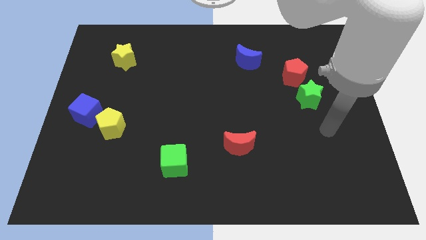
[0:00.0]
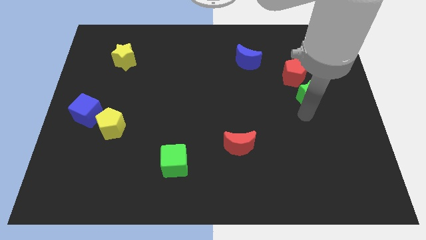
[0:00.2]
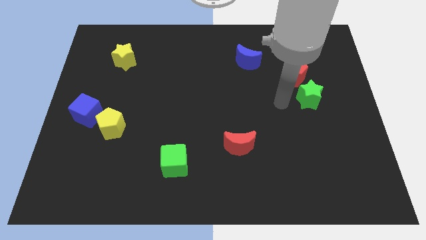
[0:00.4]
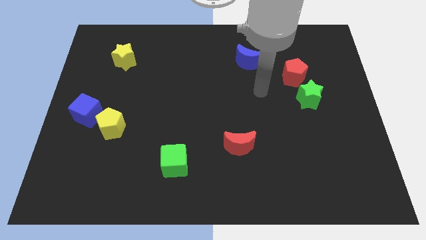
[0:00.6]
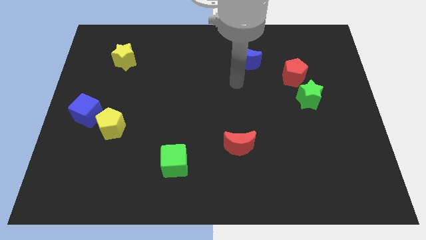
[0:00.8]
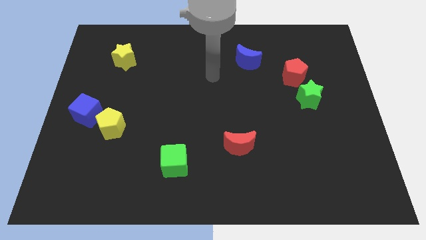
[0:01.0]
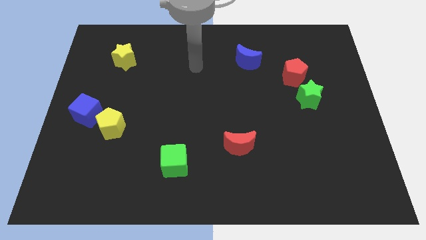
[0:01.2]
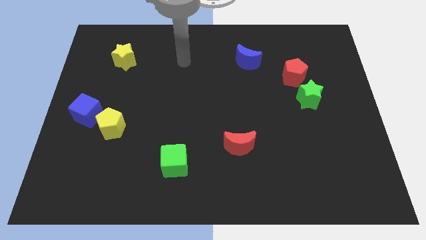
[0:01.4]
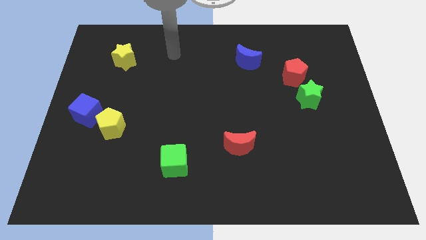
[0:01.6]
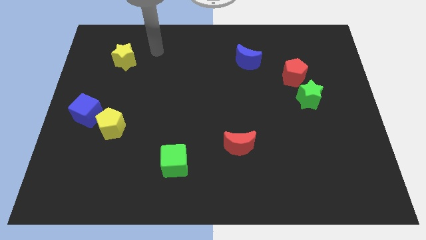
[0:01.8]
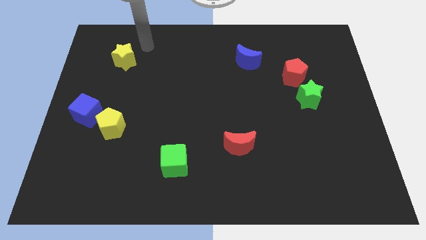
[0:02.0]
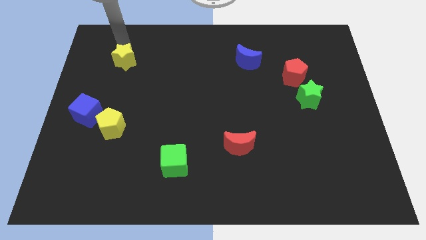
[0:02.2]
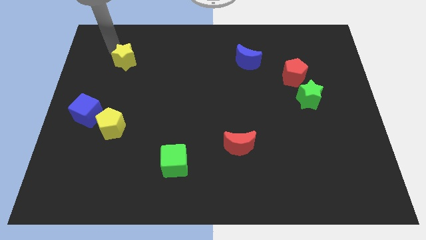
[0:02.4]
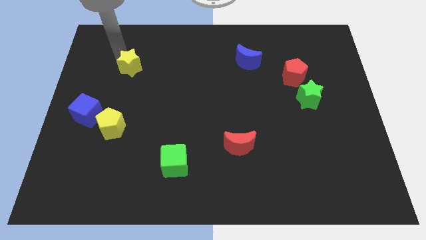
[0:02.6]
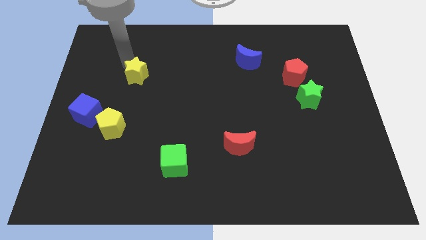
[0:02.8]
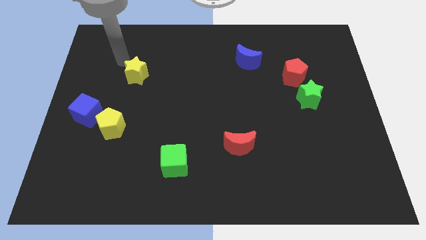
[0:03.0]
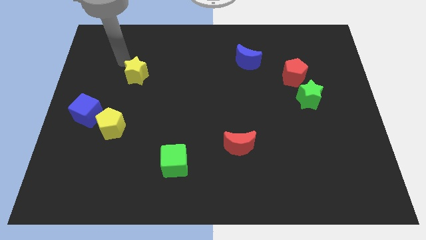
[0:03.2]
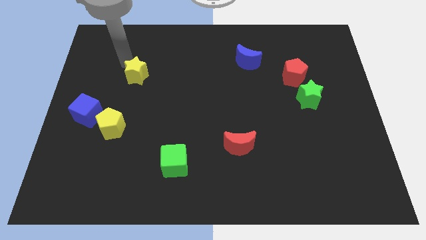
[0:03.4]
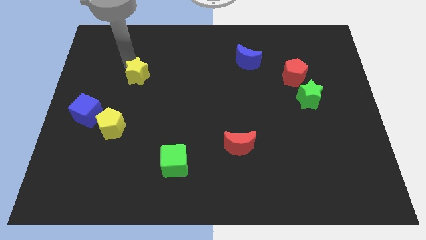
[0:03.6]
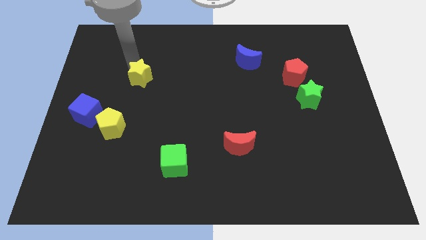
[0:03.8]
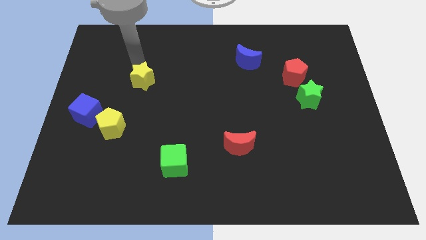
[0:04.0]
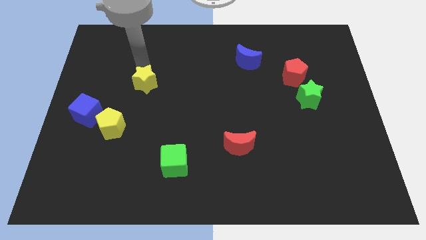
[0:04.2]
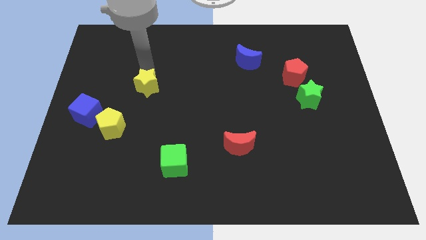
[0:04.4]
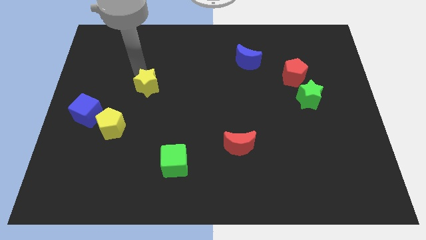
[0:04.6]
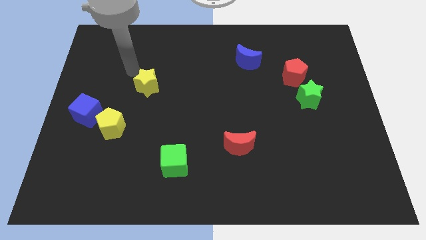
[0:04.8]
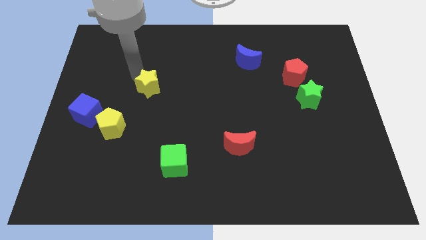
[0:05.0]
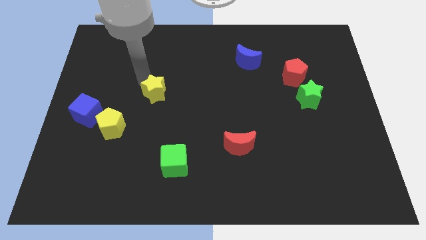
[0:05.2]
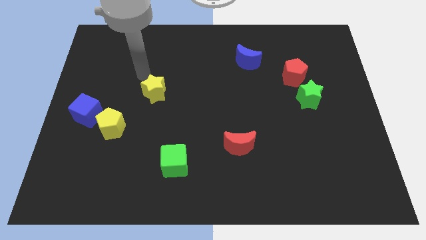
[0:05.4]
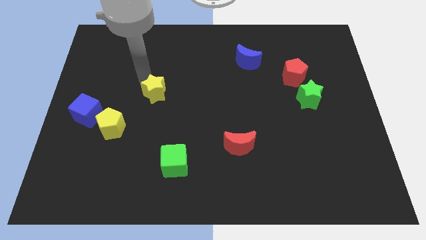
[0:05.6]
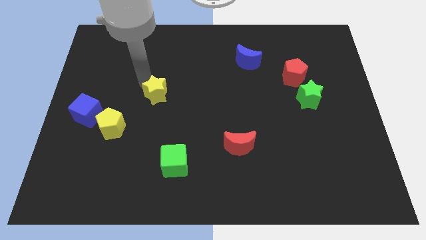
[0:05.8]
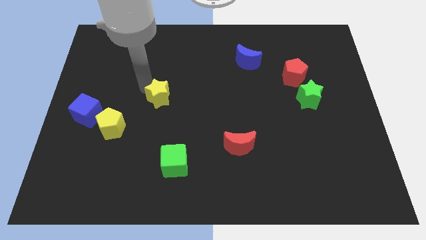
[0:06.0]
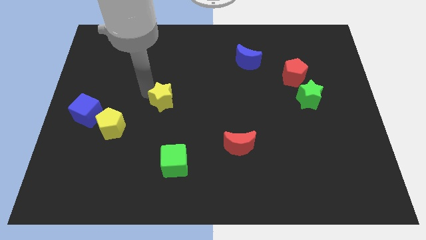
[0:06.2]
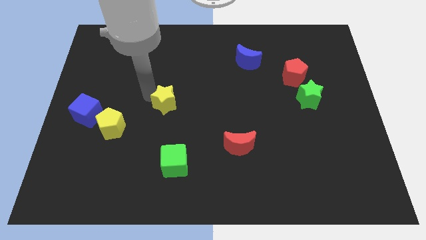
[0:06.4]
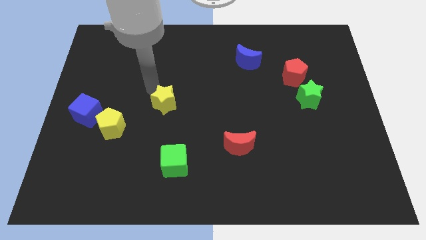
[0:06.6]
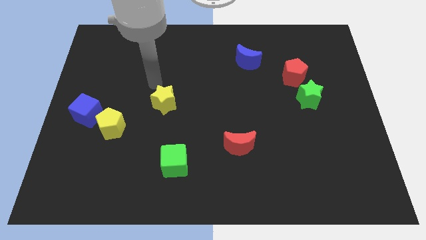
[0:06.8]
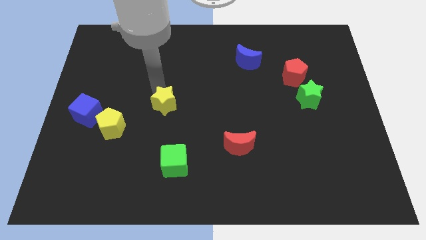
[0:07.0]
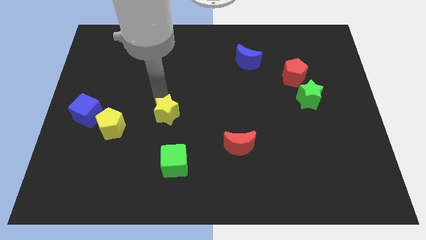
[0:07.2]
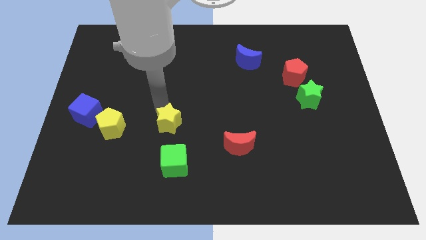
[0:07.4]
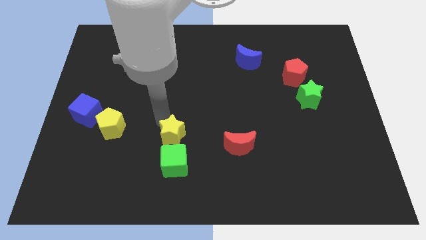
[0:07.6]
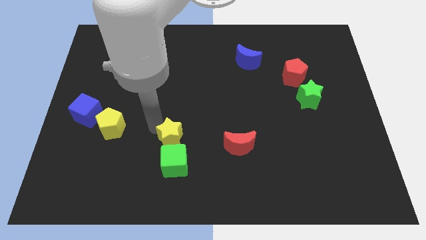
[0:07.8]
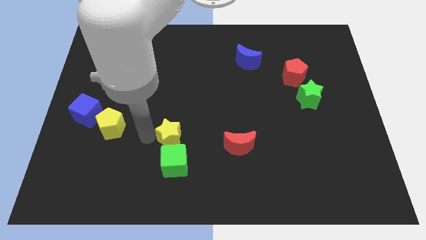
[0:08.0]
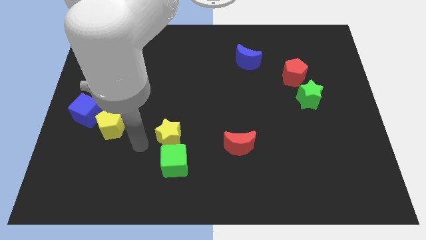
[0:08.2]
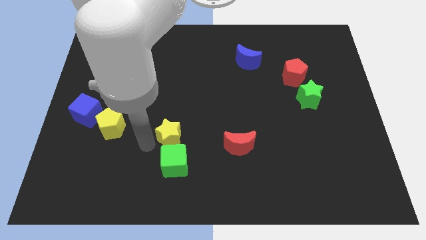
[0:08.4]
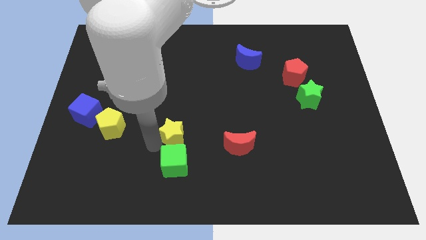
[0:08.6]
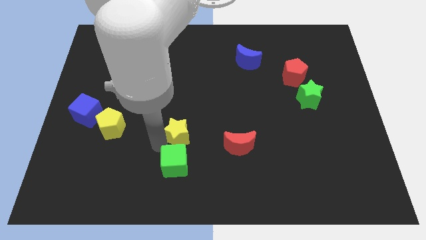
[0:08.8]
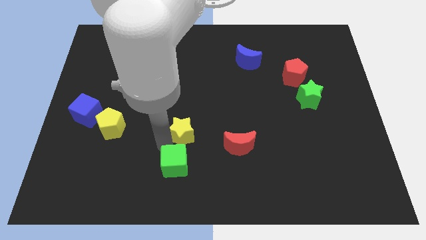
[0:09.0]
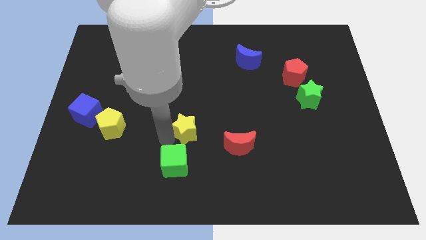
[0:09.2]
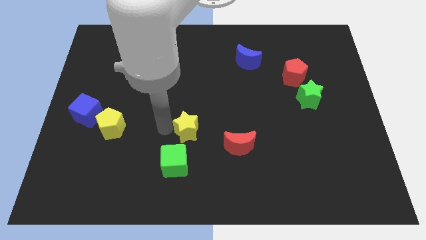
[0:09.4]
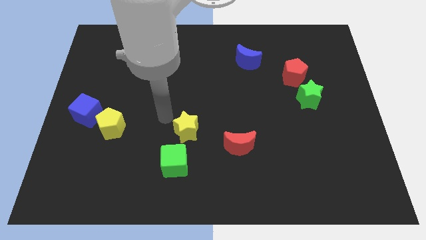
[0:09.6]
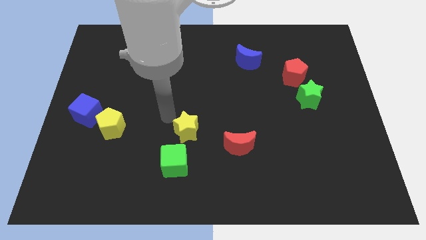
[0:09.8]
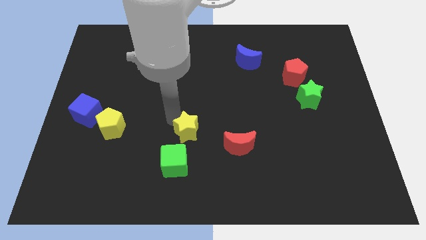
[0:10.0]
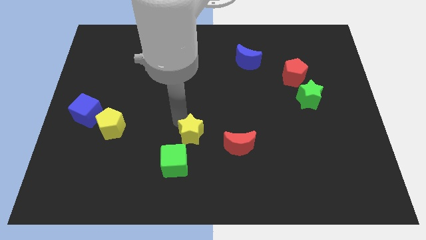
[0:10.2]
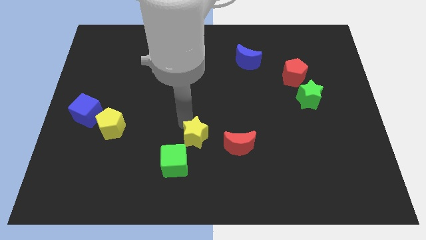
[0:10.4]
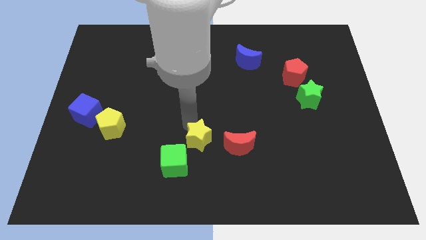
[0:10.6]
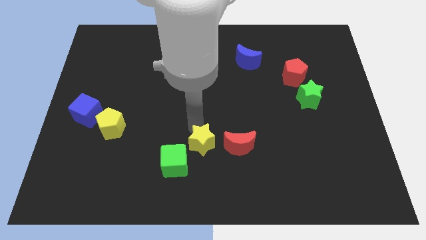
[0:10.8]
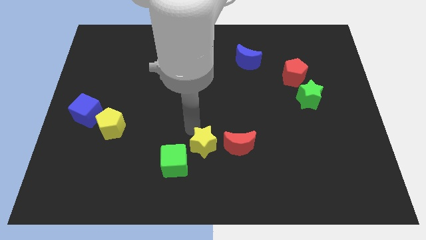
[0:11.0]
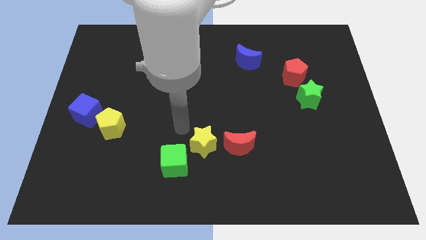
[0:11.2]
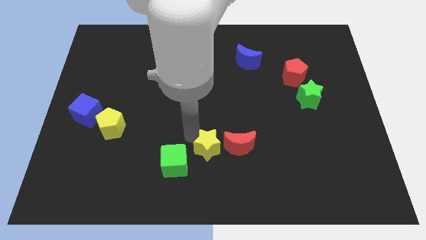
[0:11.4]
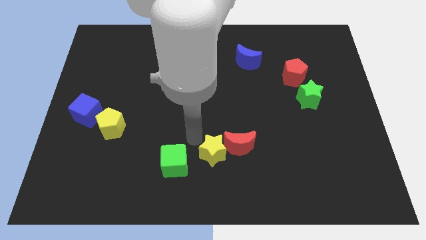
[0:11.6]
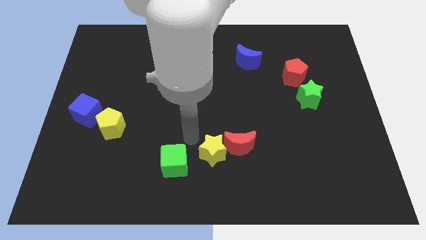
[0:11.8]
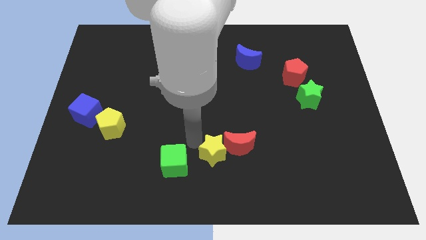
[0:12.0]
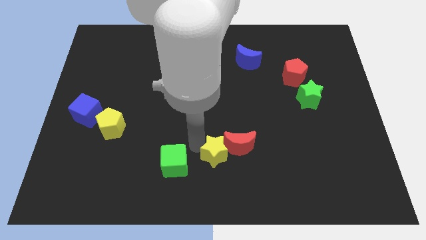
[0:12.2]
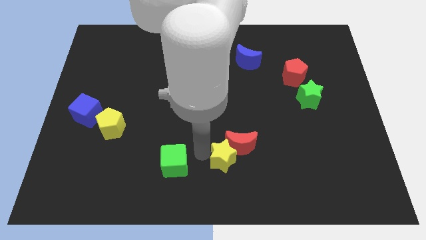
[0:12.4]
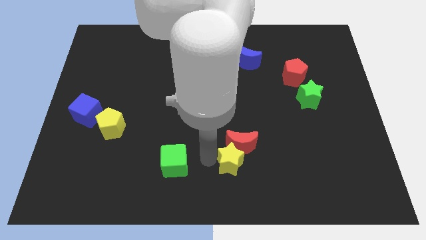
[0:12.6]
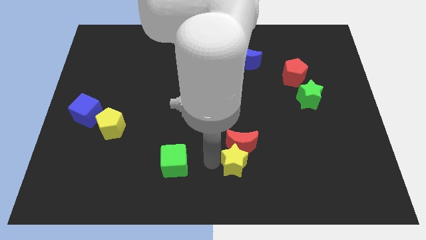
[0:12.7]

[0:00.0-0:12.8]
push the yellow star to the bottom right side of the red moon
